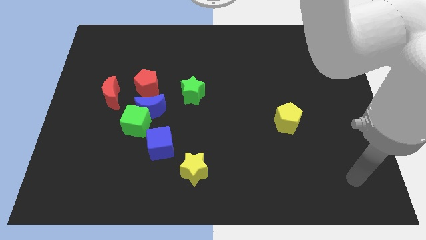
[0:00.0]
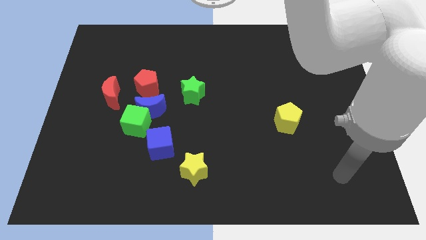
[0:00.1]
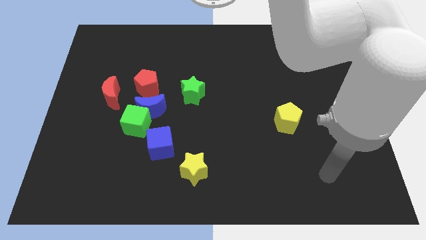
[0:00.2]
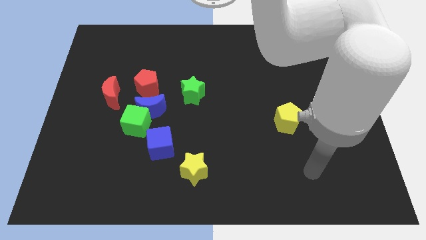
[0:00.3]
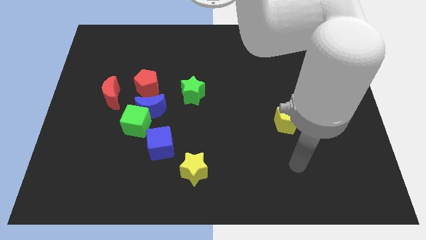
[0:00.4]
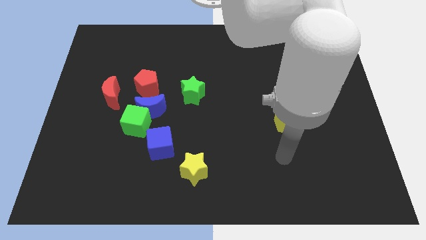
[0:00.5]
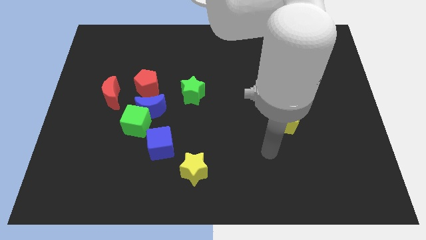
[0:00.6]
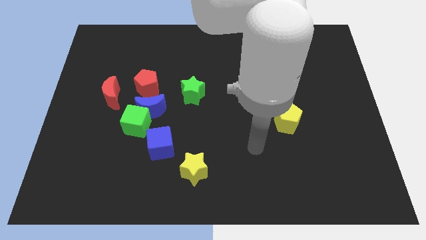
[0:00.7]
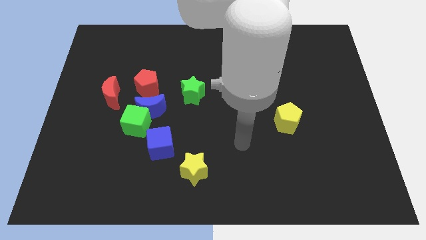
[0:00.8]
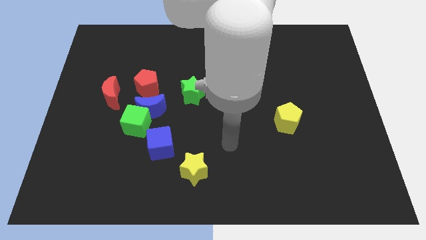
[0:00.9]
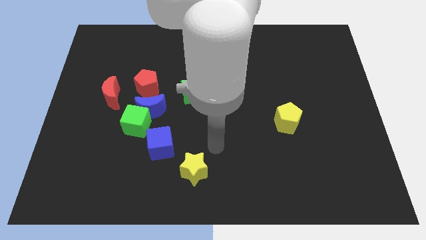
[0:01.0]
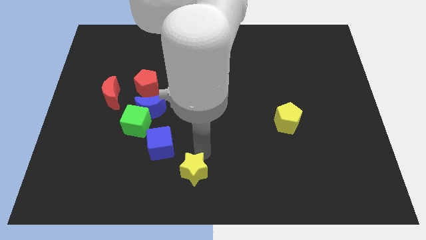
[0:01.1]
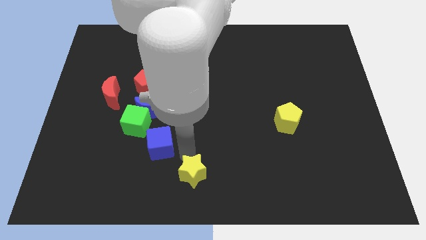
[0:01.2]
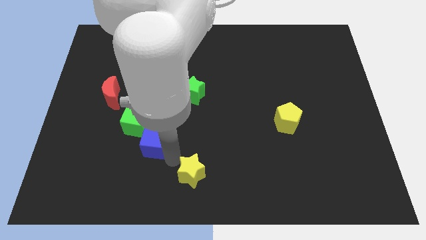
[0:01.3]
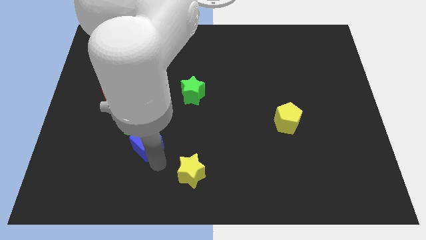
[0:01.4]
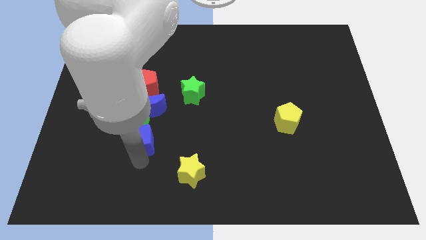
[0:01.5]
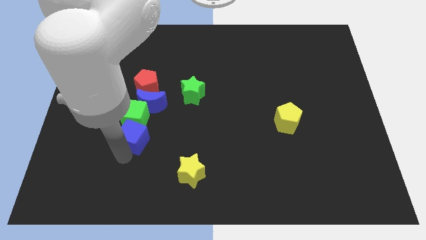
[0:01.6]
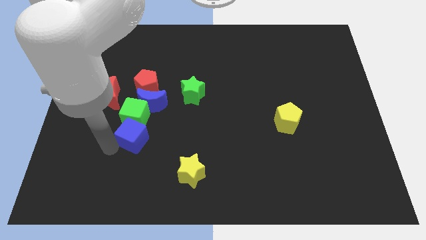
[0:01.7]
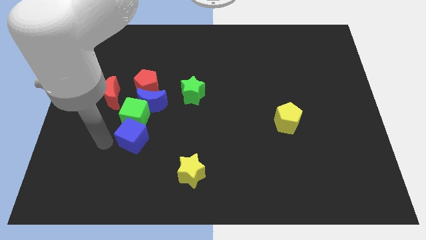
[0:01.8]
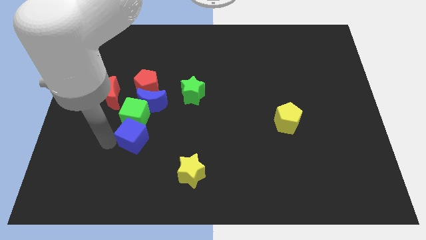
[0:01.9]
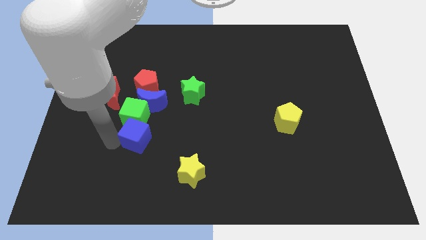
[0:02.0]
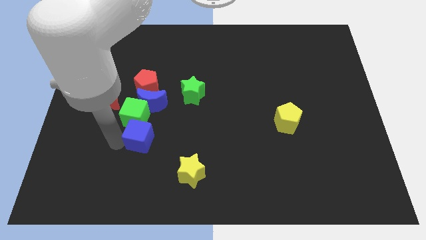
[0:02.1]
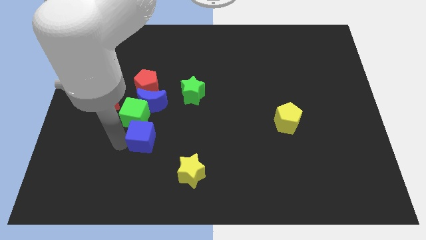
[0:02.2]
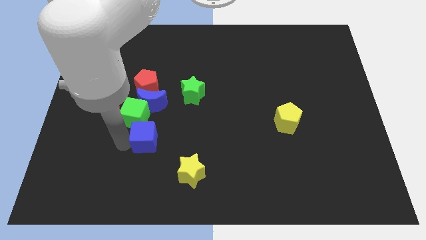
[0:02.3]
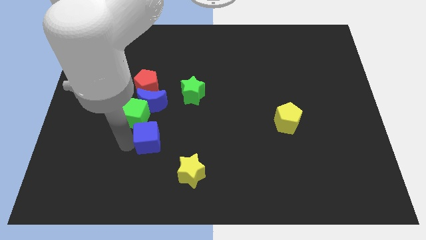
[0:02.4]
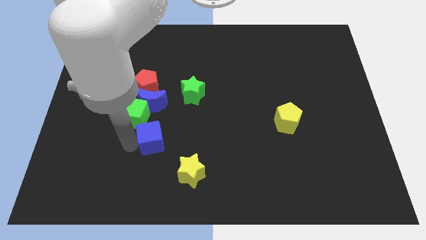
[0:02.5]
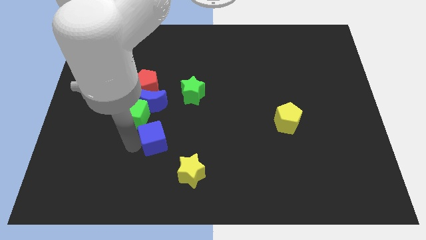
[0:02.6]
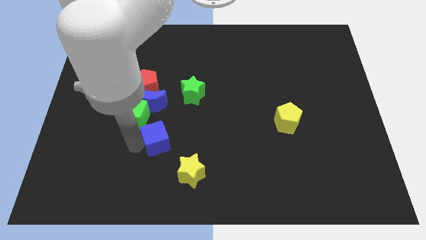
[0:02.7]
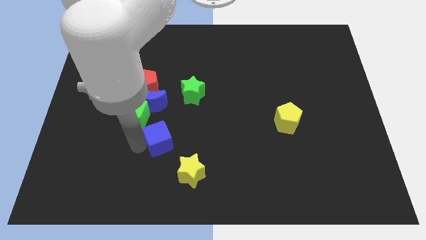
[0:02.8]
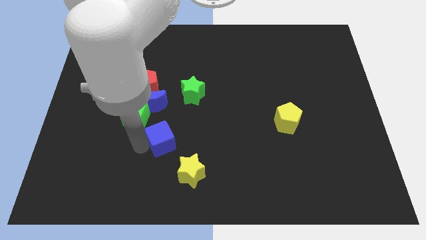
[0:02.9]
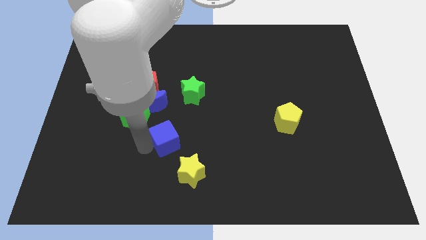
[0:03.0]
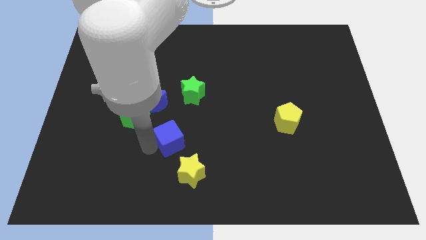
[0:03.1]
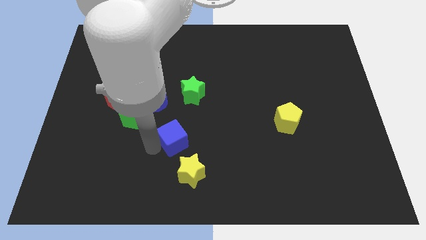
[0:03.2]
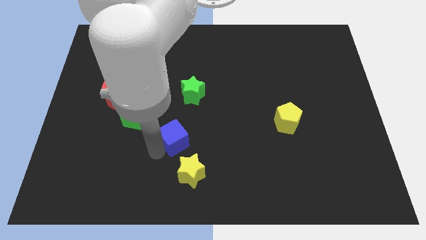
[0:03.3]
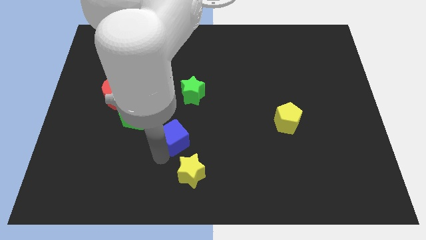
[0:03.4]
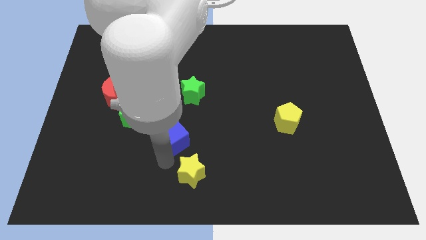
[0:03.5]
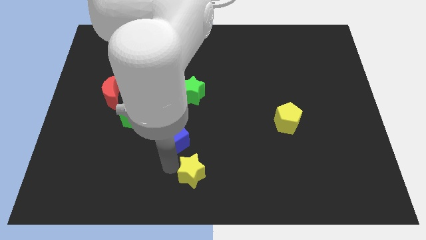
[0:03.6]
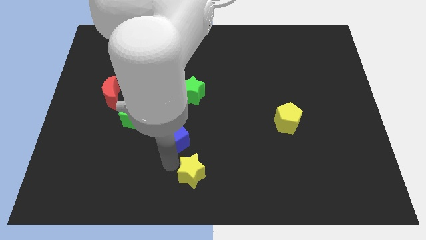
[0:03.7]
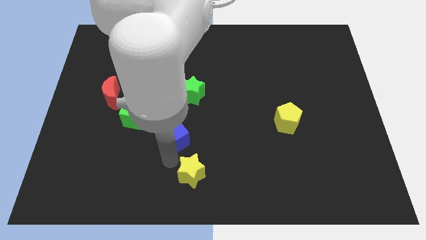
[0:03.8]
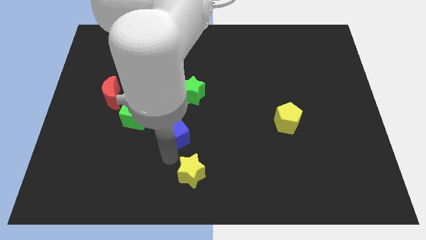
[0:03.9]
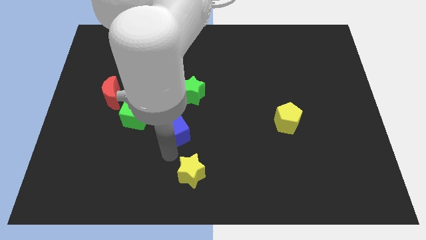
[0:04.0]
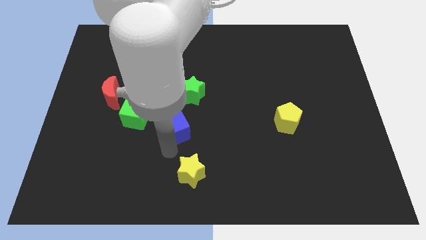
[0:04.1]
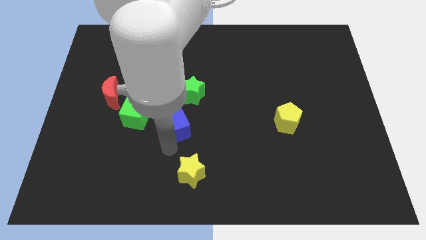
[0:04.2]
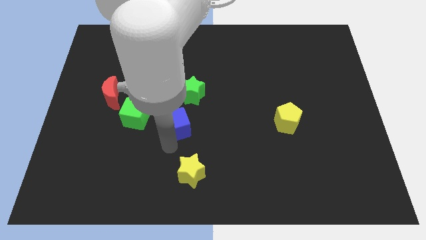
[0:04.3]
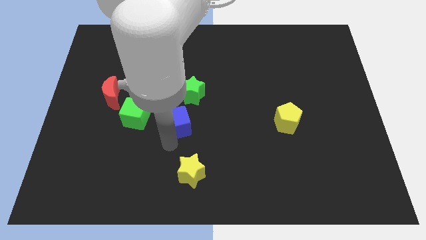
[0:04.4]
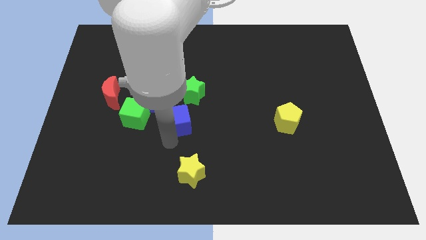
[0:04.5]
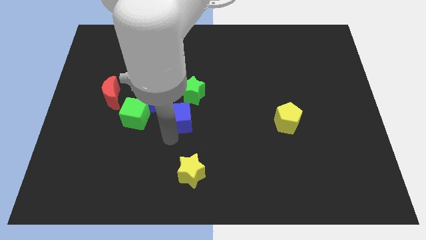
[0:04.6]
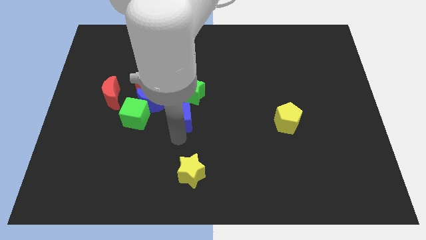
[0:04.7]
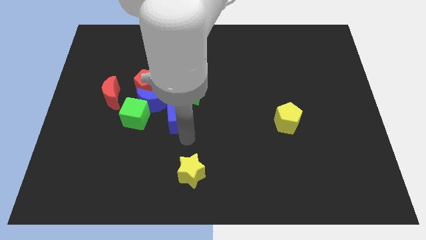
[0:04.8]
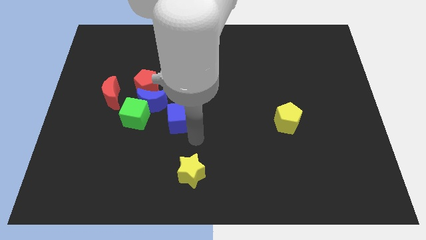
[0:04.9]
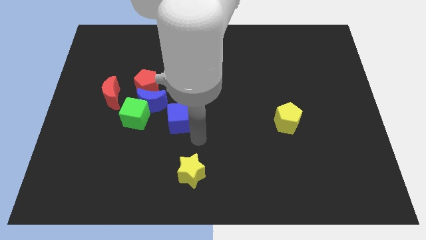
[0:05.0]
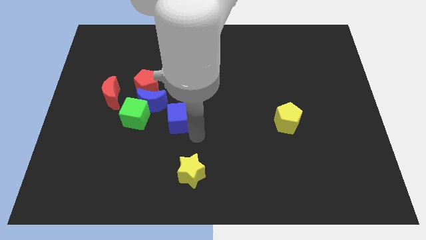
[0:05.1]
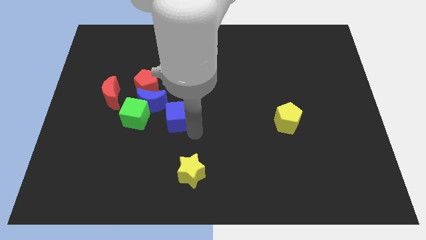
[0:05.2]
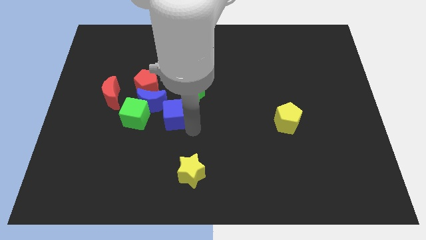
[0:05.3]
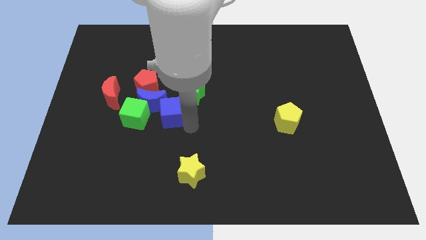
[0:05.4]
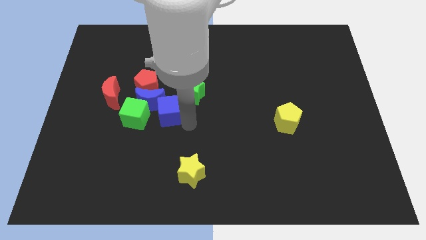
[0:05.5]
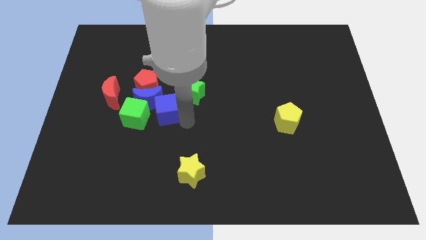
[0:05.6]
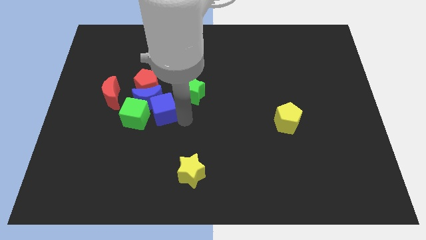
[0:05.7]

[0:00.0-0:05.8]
push the blue cube to the right of the red moon
